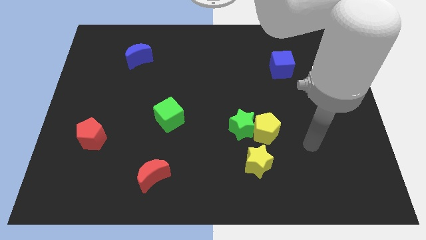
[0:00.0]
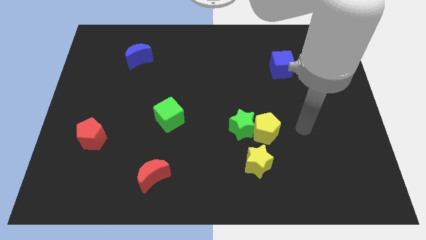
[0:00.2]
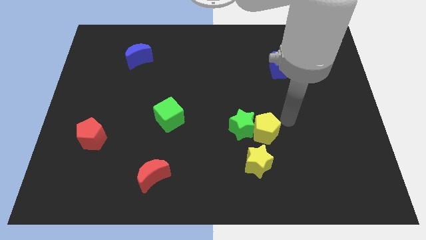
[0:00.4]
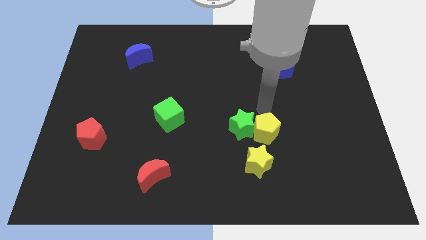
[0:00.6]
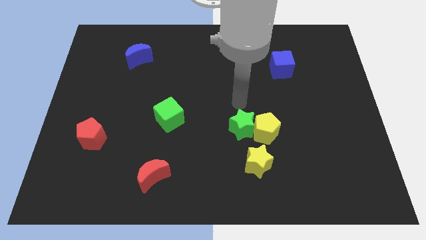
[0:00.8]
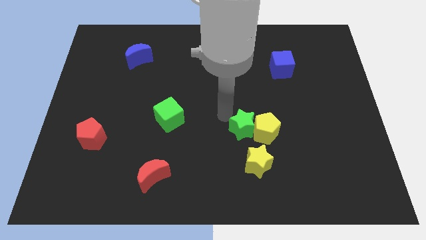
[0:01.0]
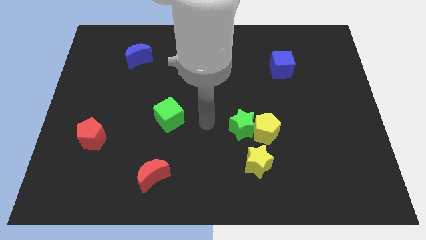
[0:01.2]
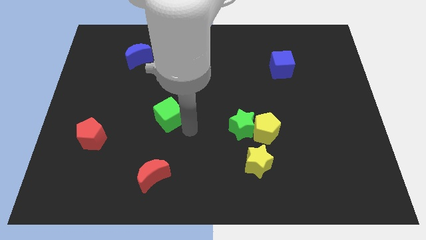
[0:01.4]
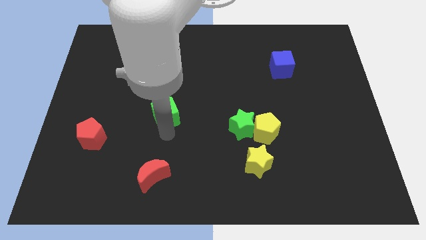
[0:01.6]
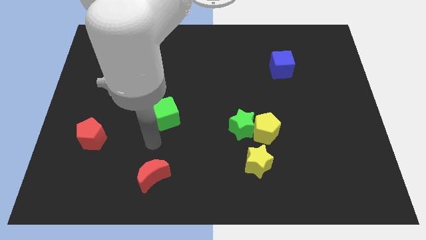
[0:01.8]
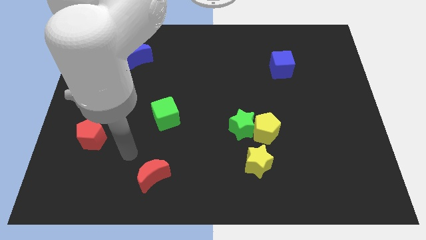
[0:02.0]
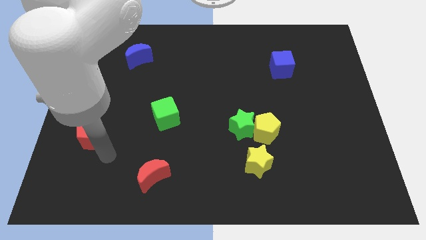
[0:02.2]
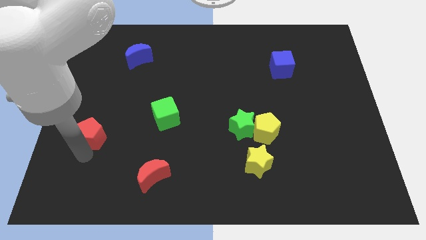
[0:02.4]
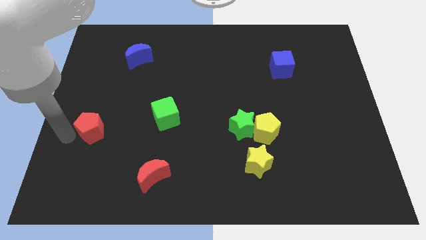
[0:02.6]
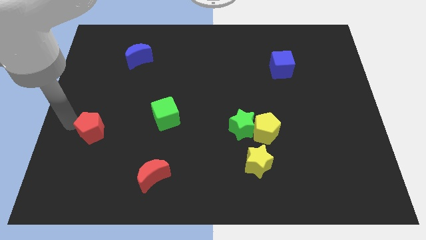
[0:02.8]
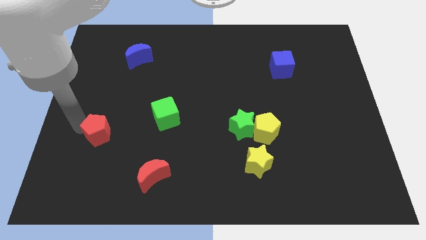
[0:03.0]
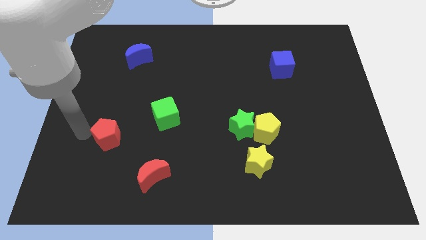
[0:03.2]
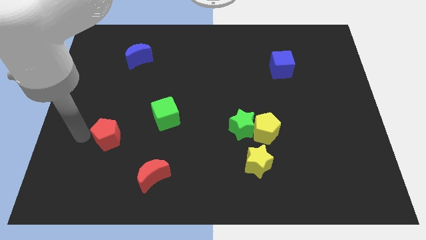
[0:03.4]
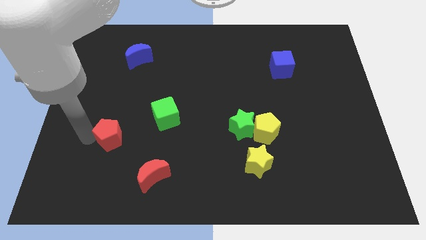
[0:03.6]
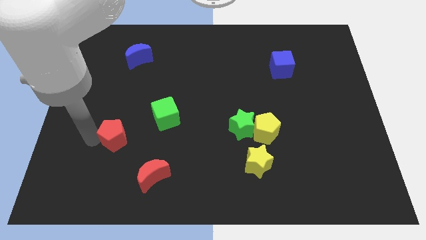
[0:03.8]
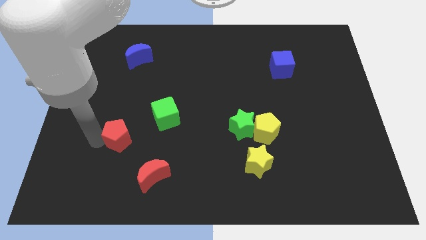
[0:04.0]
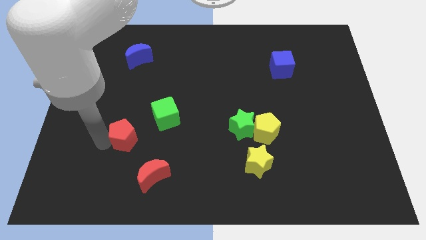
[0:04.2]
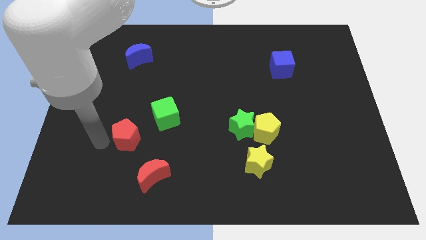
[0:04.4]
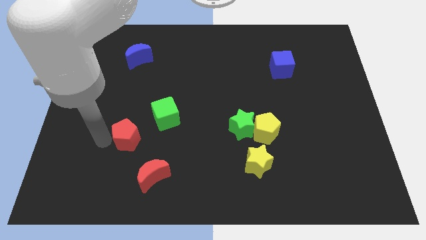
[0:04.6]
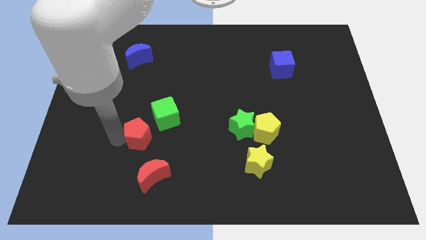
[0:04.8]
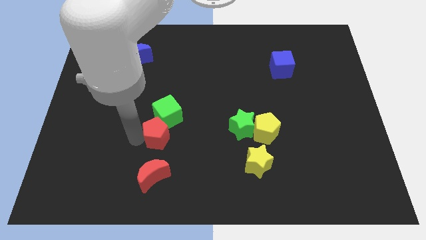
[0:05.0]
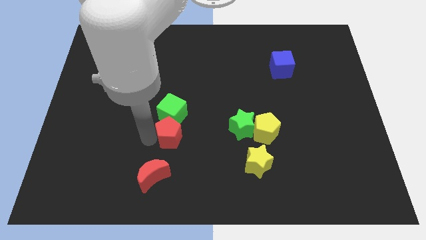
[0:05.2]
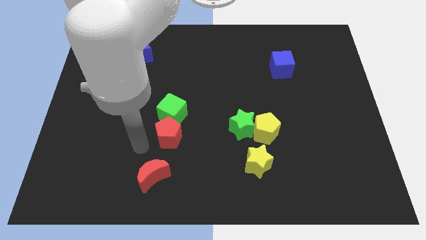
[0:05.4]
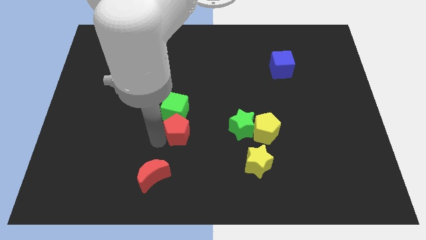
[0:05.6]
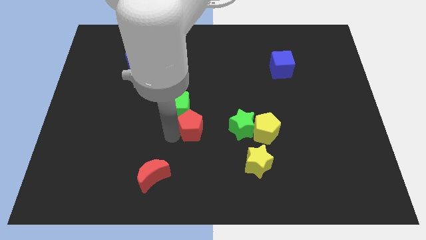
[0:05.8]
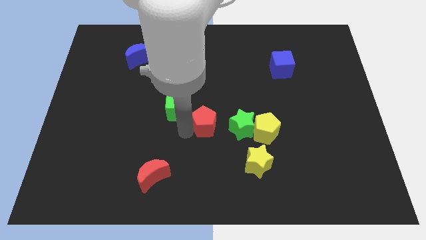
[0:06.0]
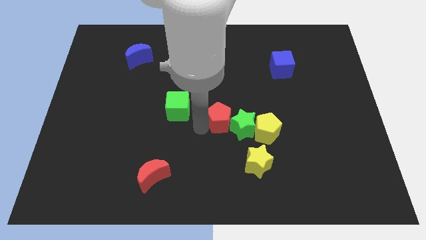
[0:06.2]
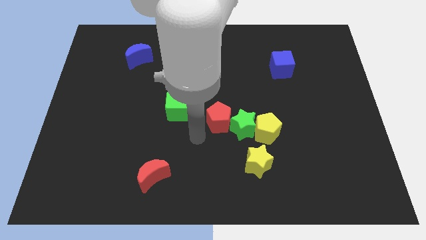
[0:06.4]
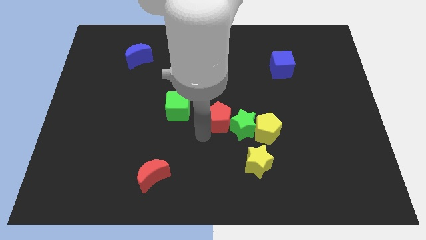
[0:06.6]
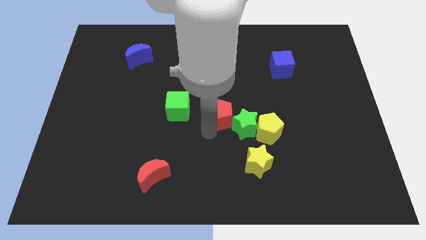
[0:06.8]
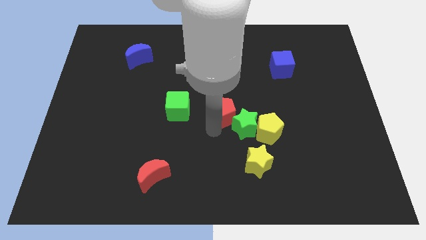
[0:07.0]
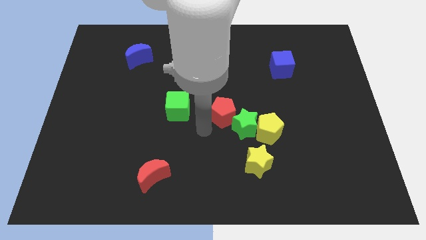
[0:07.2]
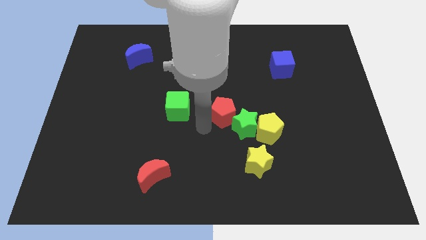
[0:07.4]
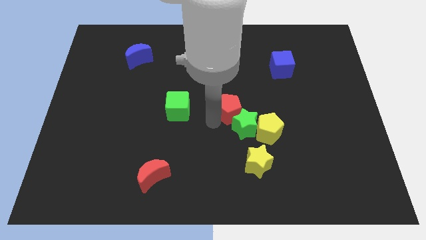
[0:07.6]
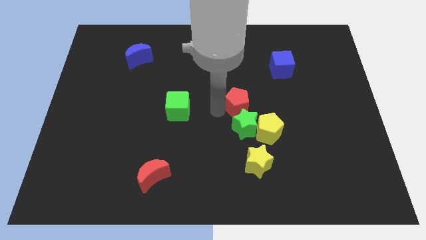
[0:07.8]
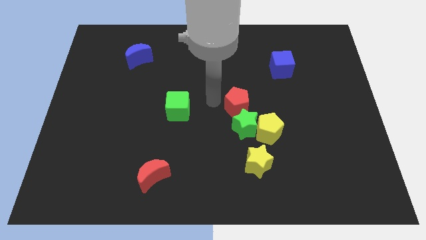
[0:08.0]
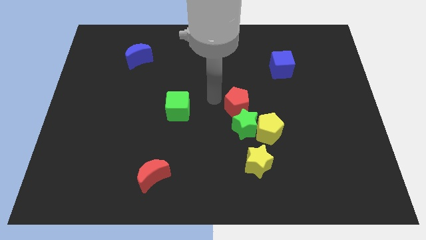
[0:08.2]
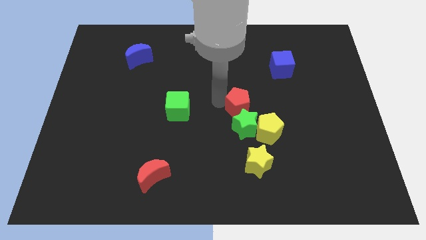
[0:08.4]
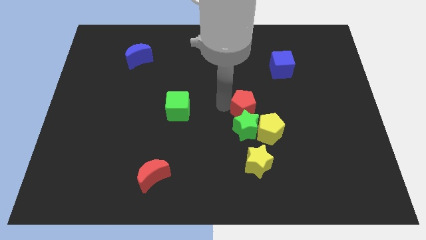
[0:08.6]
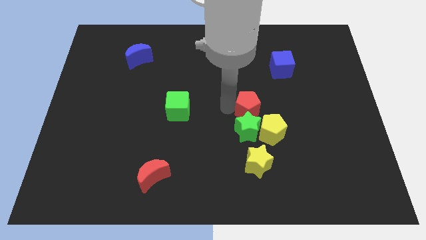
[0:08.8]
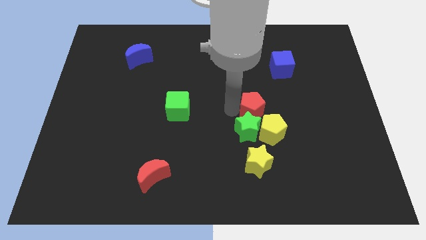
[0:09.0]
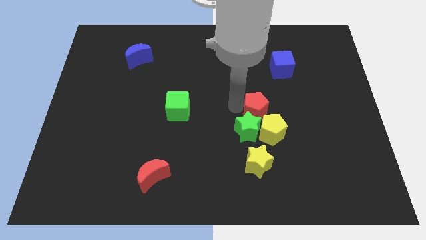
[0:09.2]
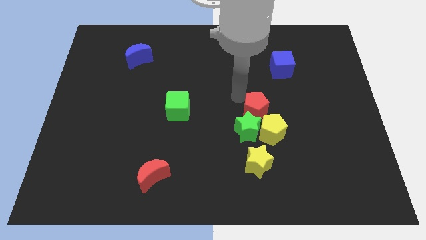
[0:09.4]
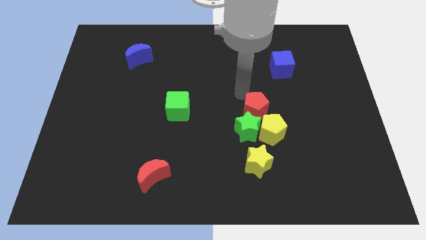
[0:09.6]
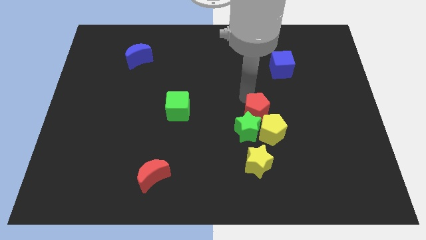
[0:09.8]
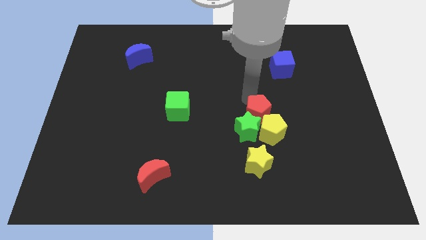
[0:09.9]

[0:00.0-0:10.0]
push the red pentagon close to the yellow pentagon

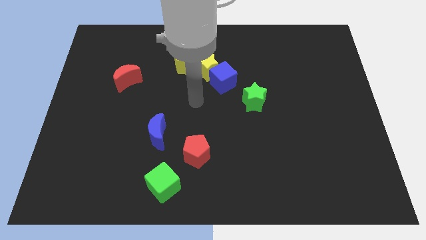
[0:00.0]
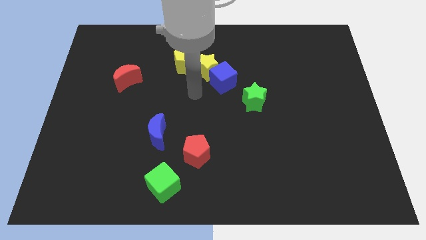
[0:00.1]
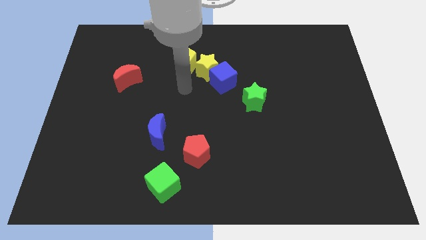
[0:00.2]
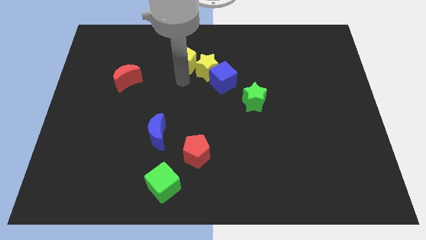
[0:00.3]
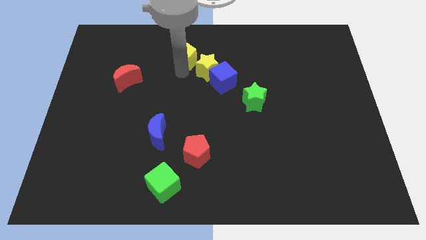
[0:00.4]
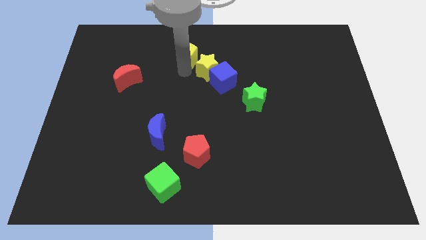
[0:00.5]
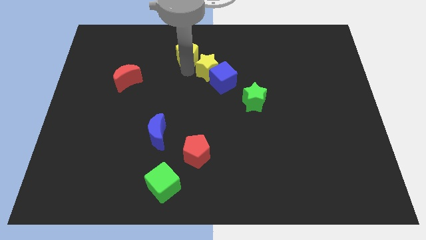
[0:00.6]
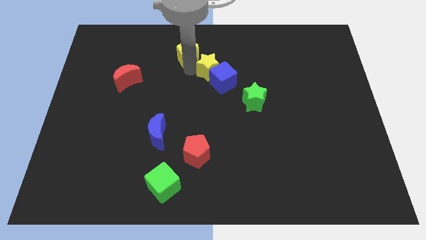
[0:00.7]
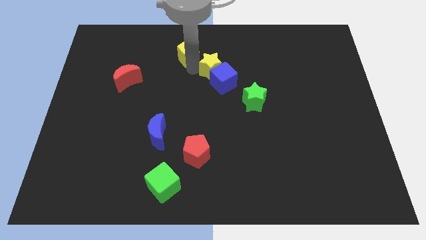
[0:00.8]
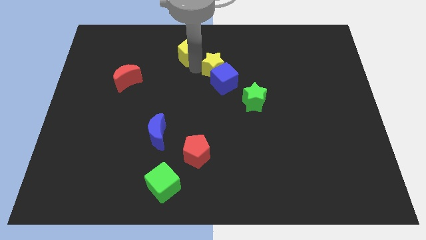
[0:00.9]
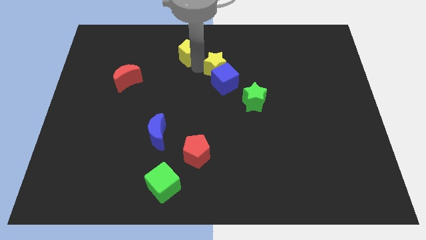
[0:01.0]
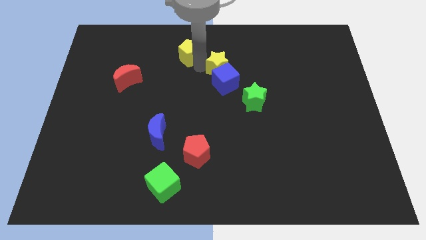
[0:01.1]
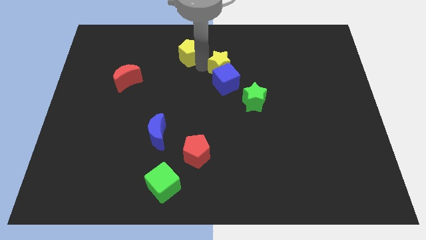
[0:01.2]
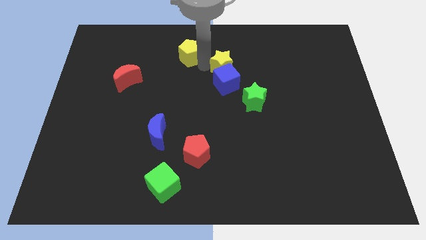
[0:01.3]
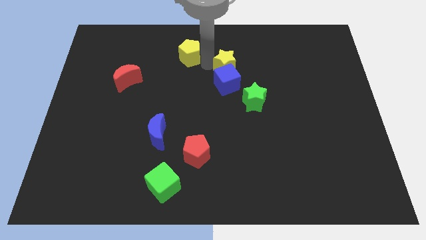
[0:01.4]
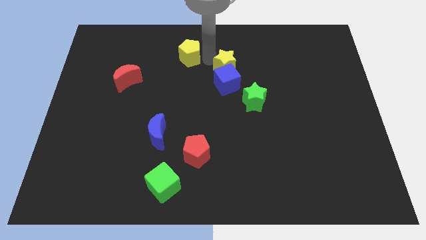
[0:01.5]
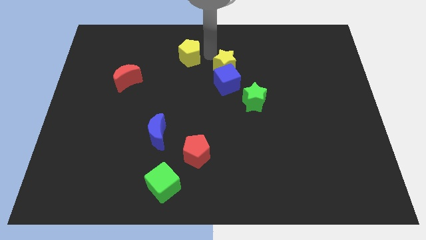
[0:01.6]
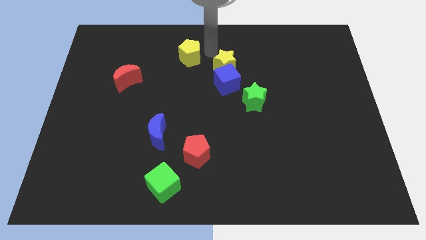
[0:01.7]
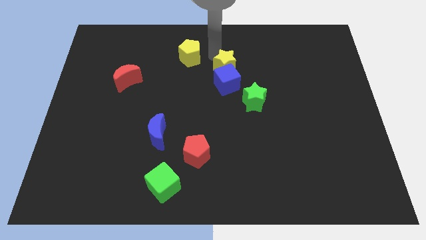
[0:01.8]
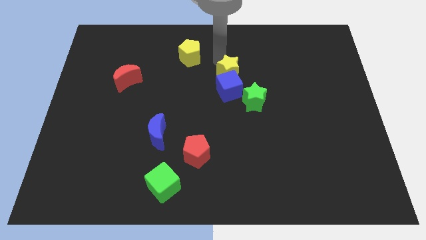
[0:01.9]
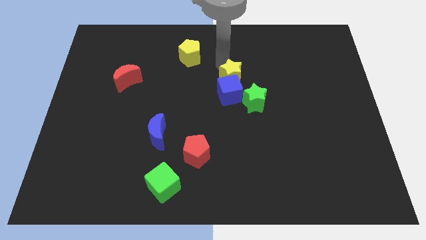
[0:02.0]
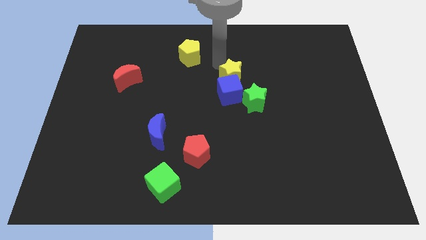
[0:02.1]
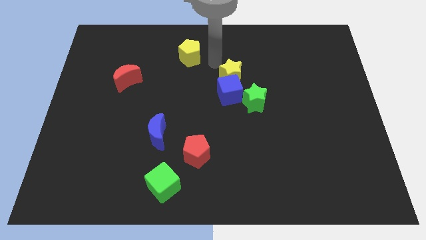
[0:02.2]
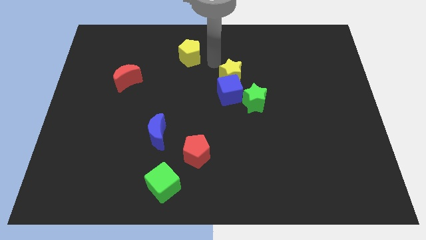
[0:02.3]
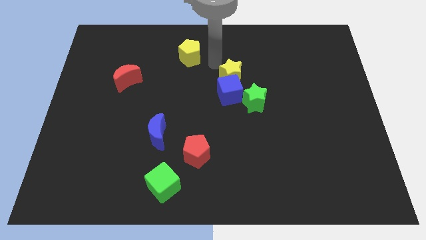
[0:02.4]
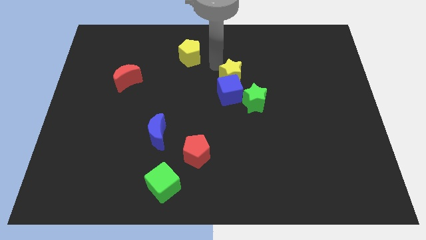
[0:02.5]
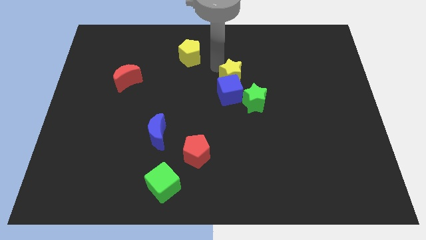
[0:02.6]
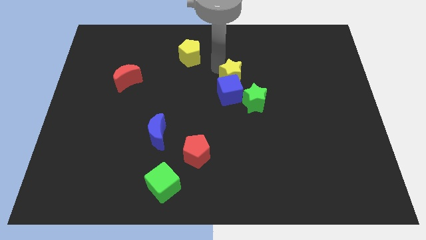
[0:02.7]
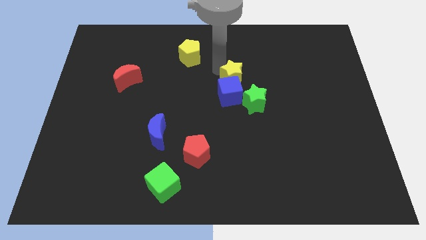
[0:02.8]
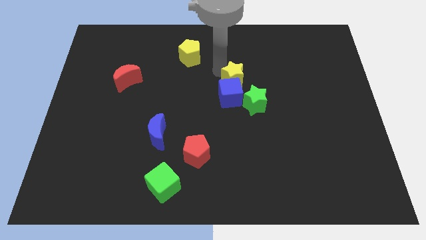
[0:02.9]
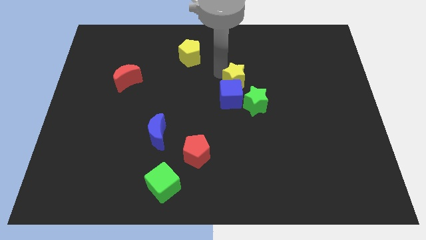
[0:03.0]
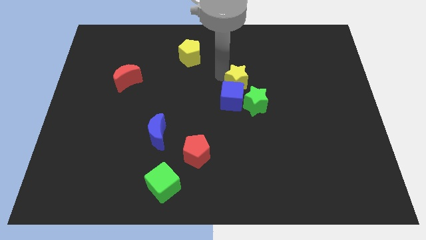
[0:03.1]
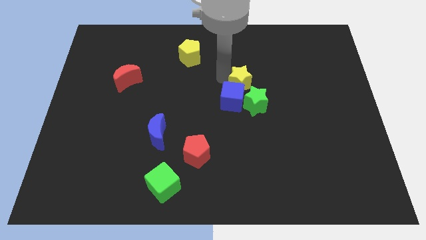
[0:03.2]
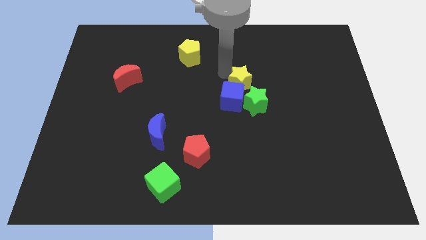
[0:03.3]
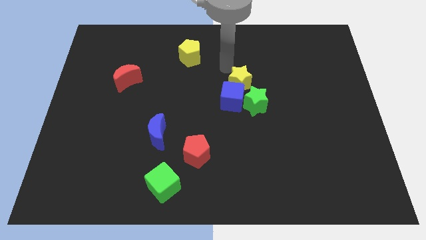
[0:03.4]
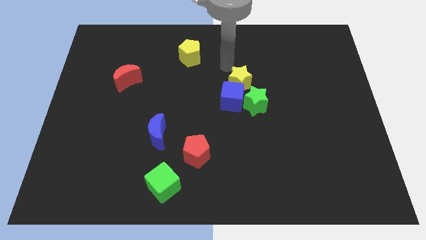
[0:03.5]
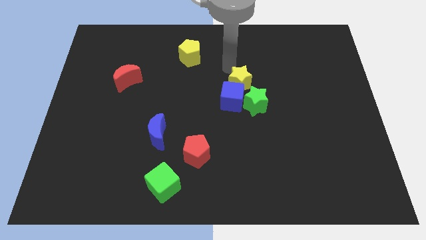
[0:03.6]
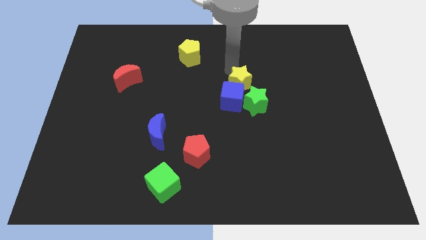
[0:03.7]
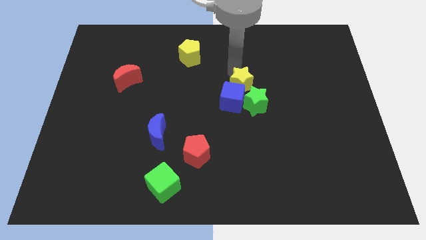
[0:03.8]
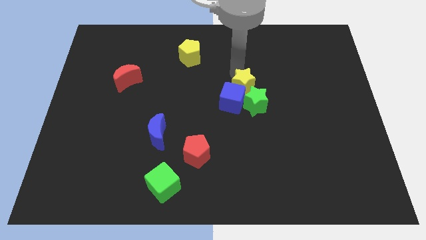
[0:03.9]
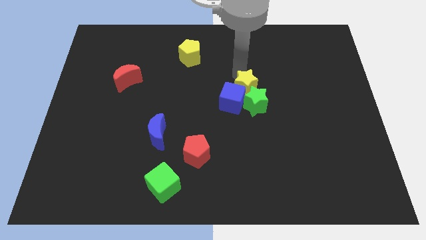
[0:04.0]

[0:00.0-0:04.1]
slide the yellow star close to the green star
